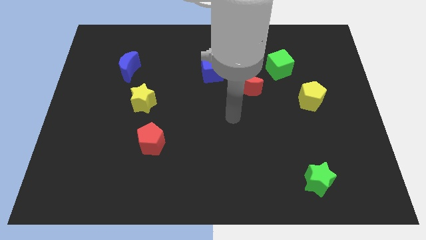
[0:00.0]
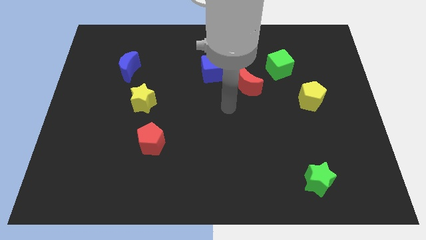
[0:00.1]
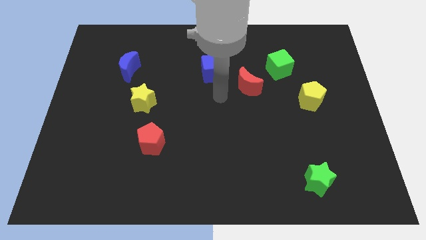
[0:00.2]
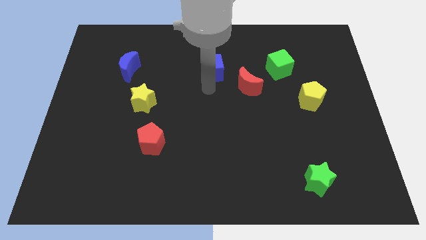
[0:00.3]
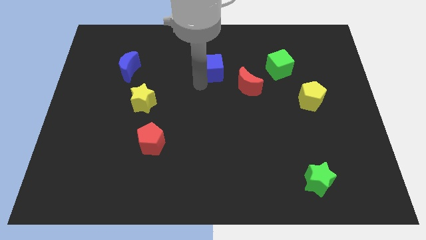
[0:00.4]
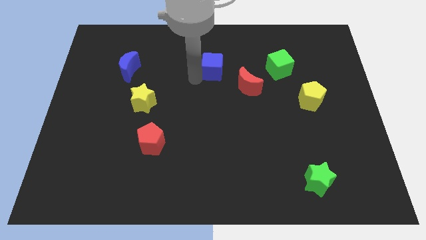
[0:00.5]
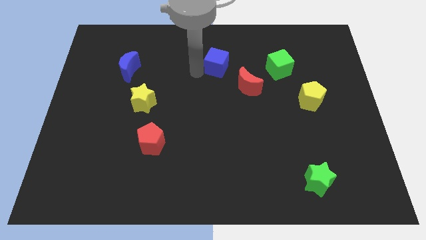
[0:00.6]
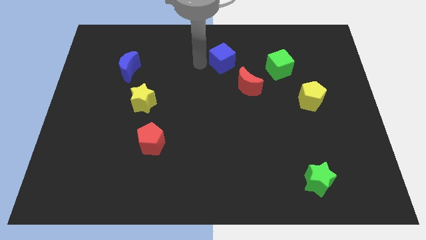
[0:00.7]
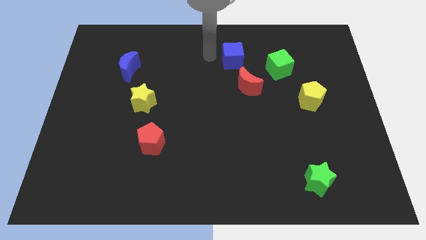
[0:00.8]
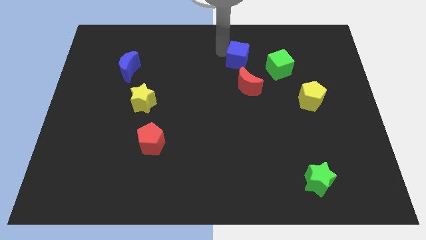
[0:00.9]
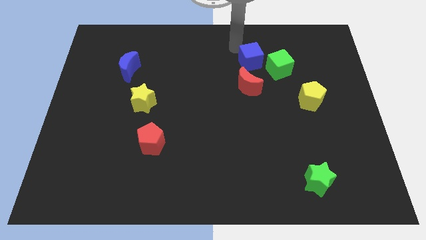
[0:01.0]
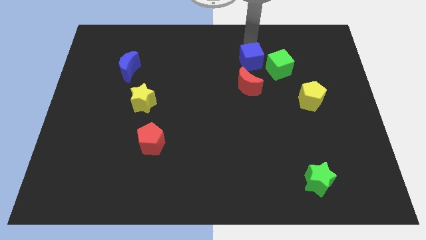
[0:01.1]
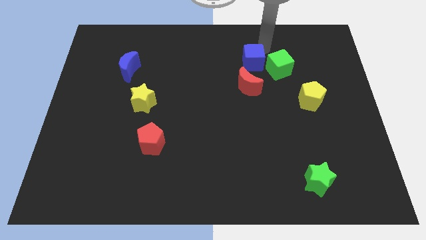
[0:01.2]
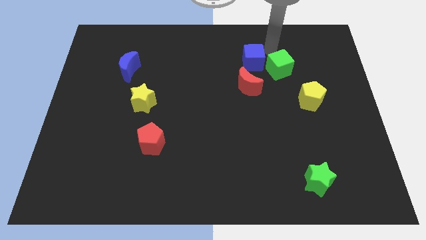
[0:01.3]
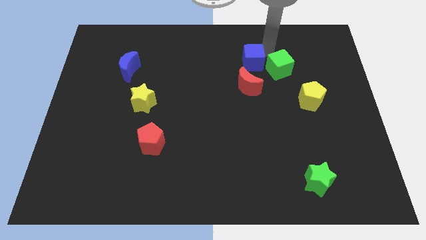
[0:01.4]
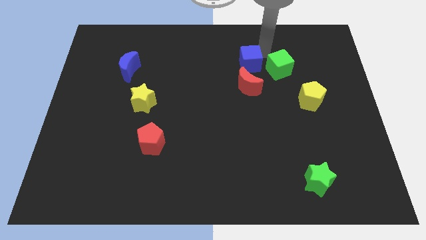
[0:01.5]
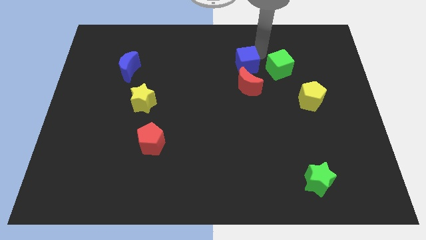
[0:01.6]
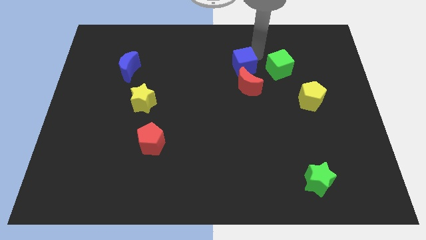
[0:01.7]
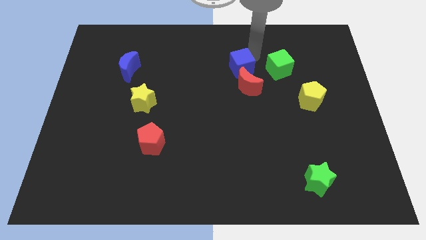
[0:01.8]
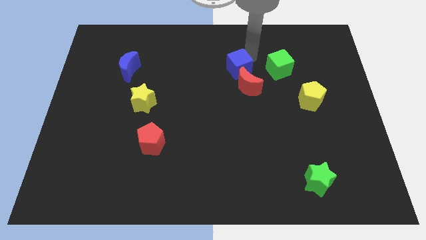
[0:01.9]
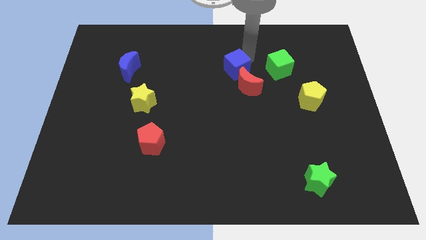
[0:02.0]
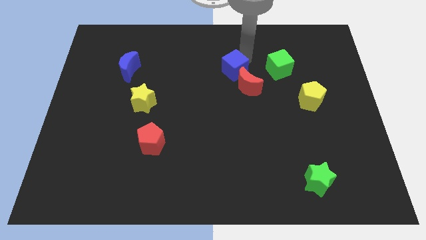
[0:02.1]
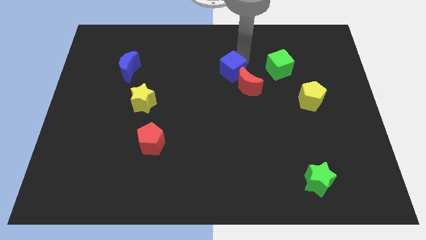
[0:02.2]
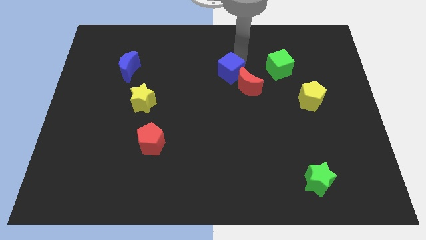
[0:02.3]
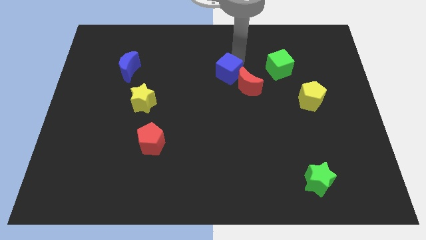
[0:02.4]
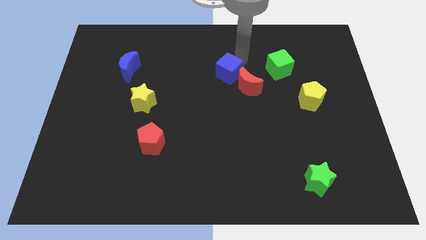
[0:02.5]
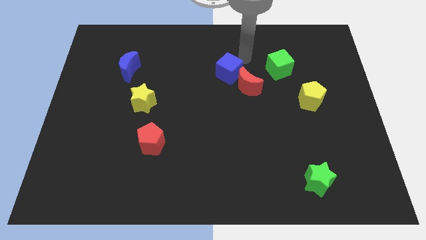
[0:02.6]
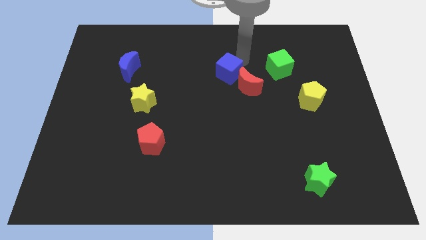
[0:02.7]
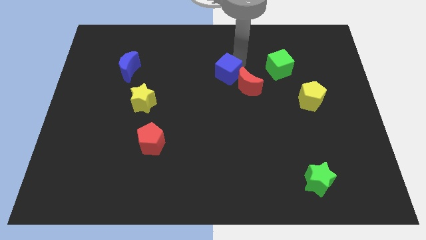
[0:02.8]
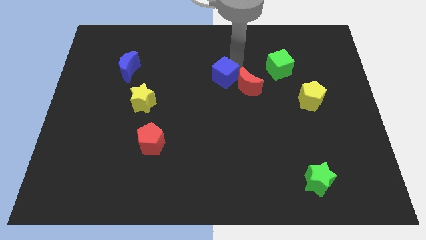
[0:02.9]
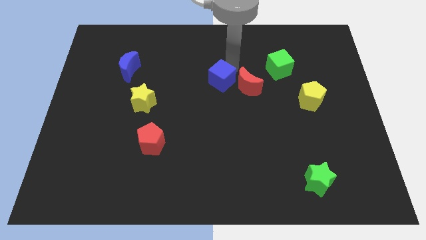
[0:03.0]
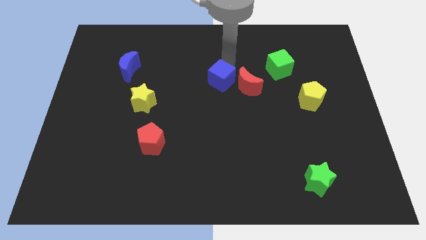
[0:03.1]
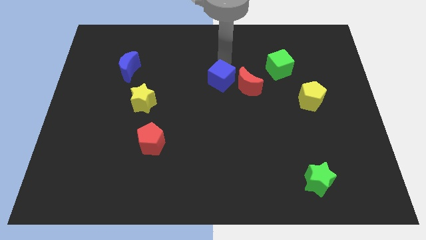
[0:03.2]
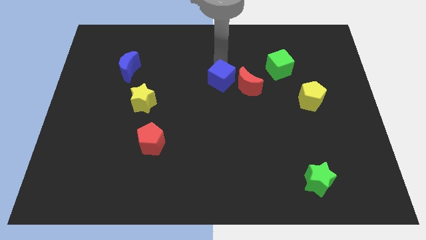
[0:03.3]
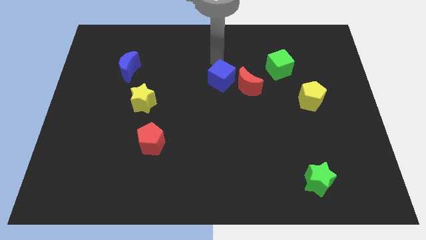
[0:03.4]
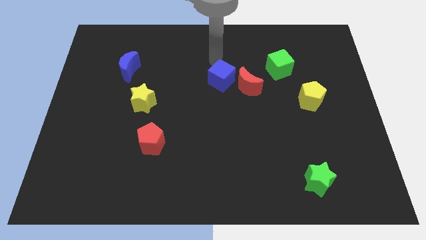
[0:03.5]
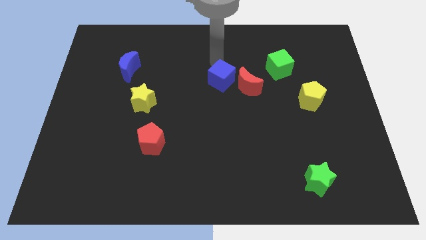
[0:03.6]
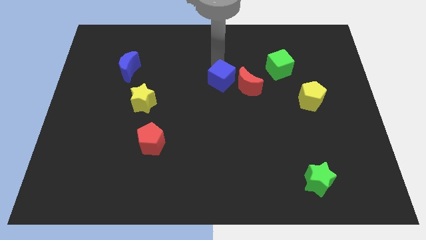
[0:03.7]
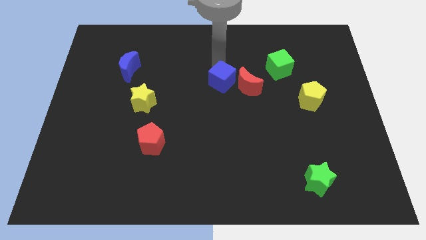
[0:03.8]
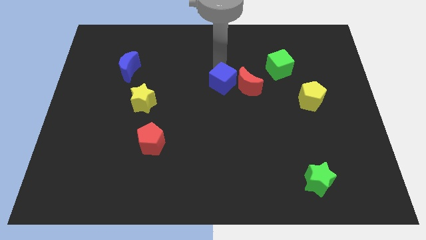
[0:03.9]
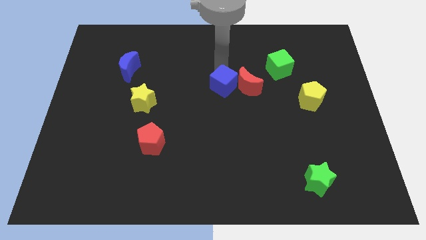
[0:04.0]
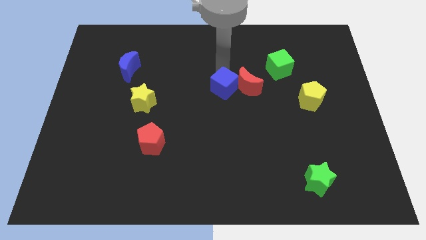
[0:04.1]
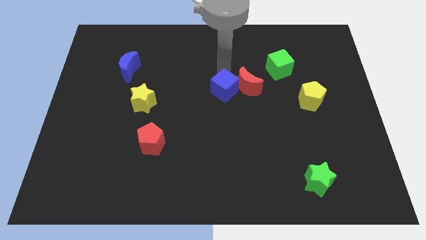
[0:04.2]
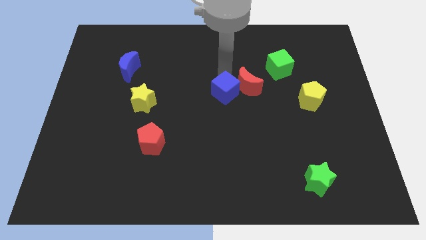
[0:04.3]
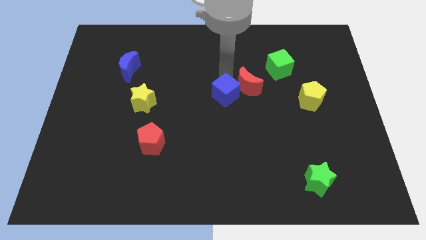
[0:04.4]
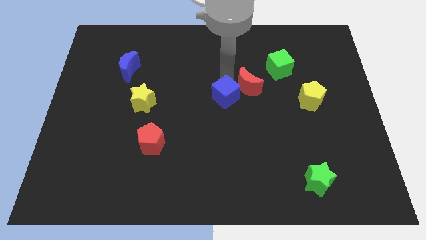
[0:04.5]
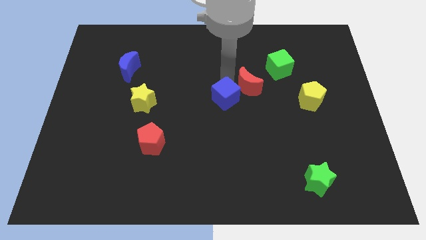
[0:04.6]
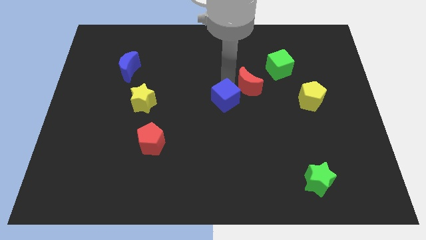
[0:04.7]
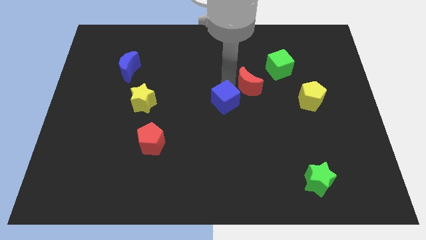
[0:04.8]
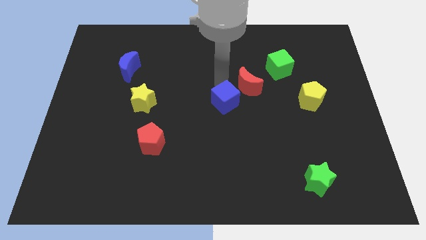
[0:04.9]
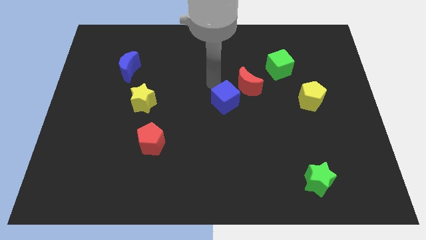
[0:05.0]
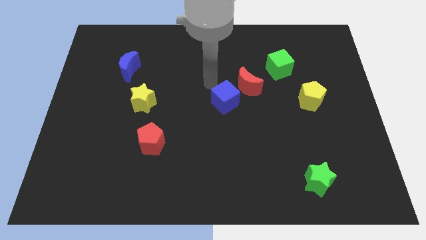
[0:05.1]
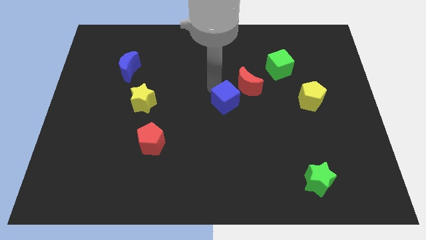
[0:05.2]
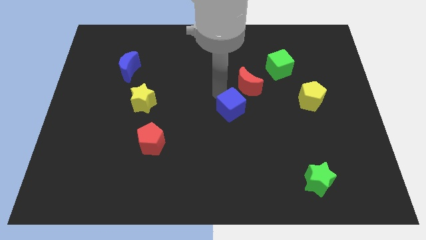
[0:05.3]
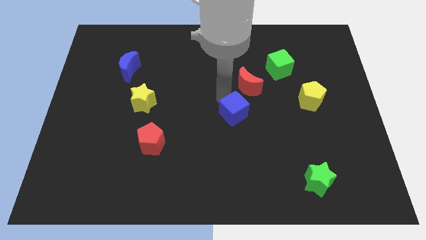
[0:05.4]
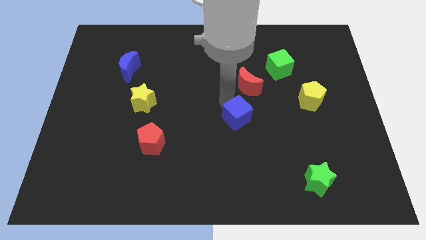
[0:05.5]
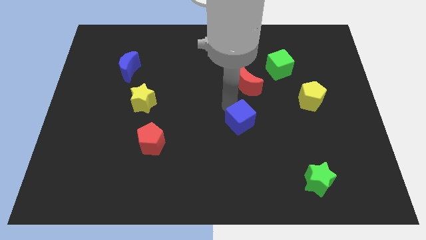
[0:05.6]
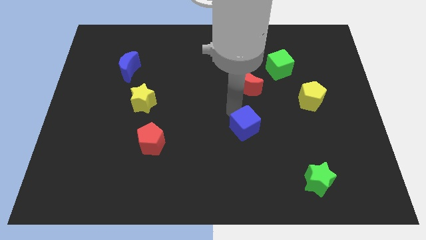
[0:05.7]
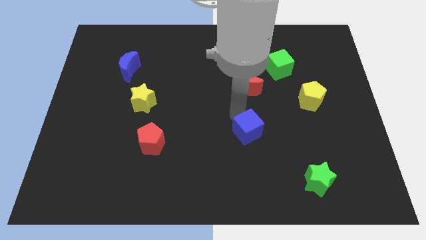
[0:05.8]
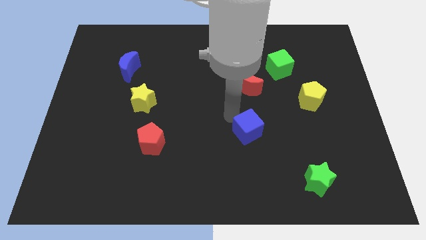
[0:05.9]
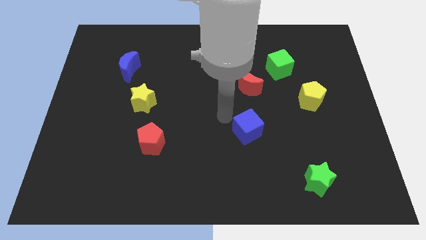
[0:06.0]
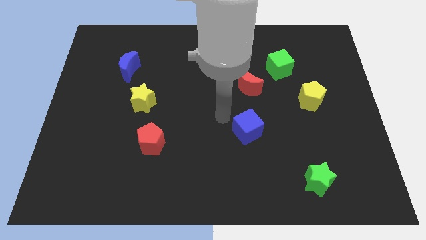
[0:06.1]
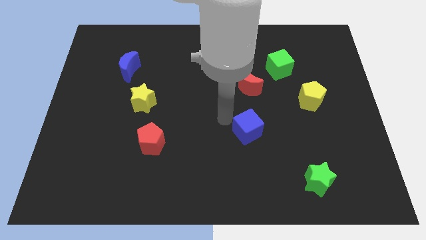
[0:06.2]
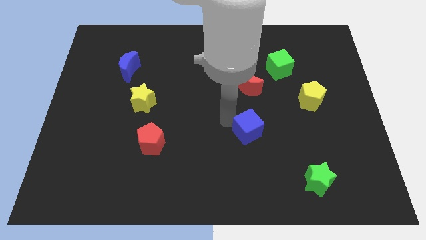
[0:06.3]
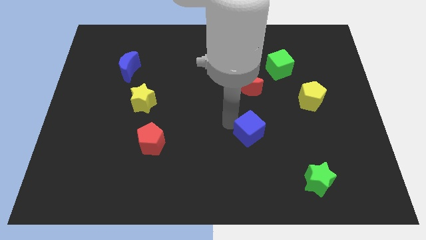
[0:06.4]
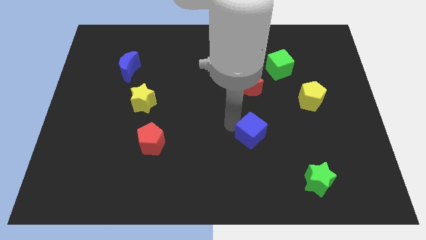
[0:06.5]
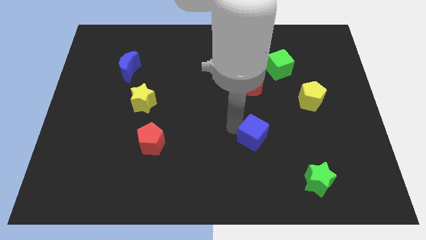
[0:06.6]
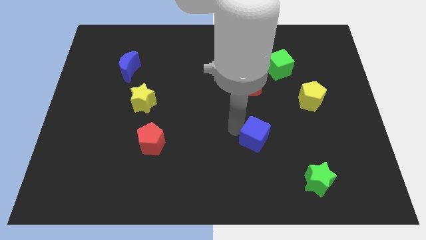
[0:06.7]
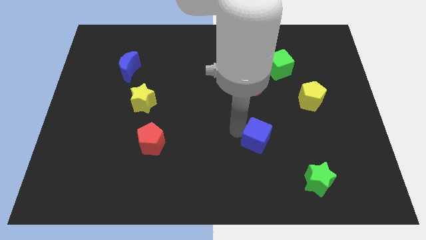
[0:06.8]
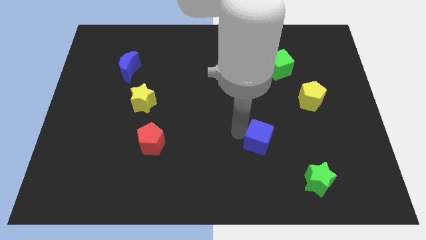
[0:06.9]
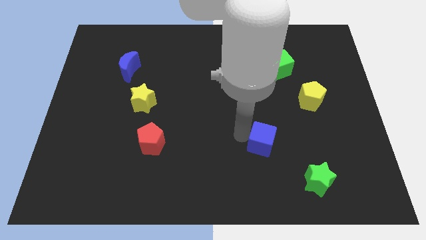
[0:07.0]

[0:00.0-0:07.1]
push the blue cube down and to the right diagonally

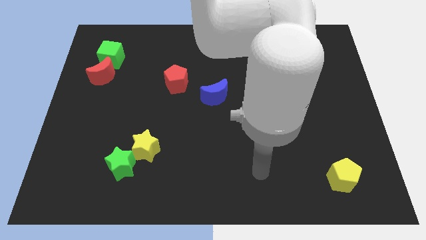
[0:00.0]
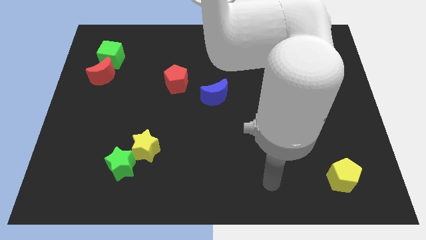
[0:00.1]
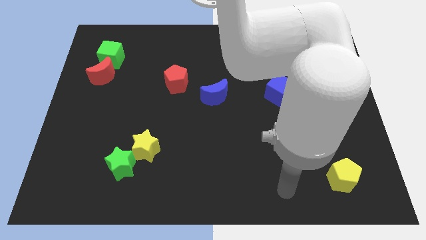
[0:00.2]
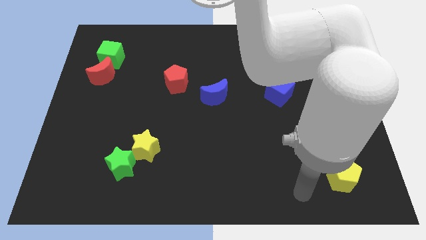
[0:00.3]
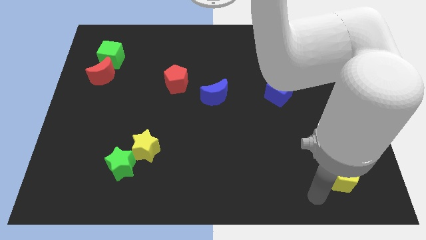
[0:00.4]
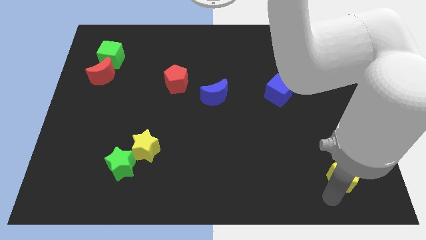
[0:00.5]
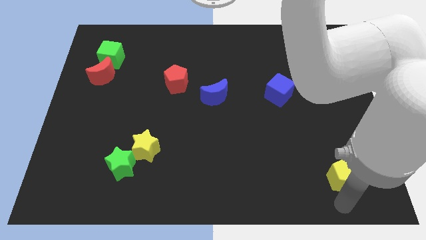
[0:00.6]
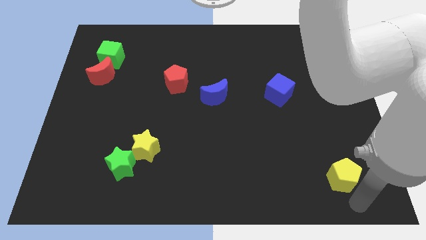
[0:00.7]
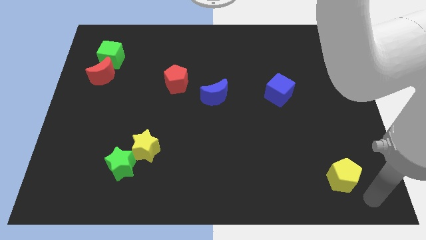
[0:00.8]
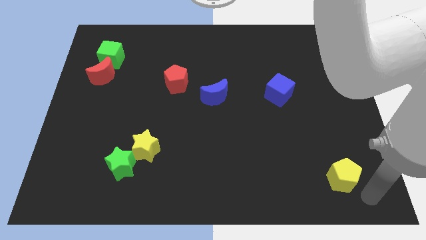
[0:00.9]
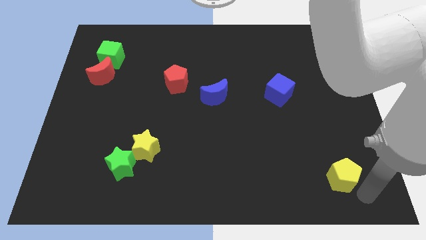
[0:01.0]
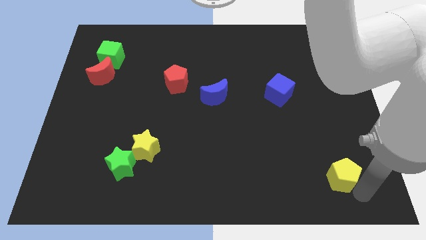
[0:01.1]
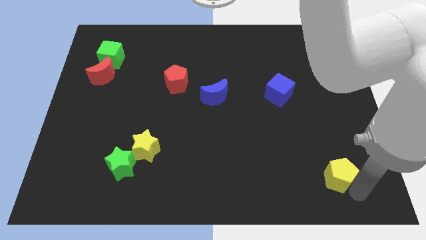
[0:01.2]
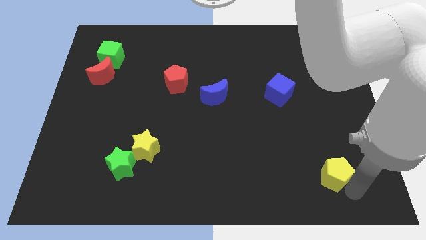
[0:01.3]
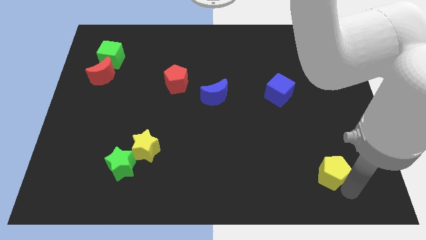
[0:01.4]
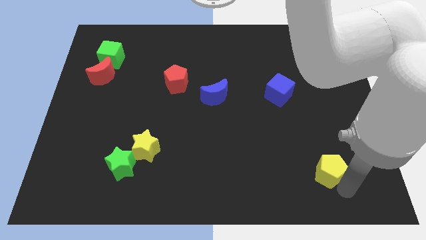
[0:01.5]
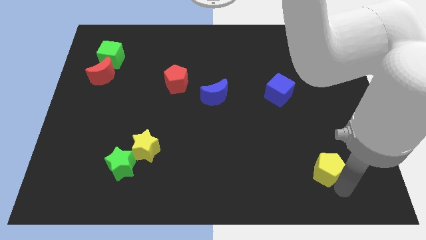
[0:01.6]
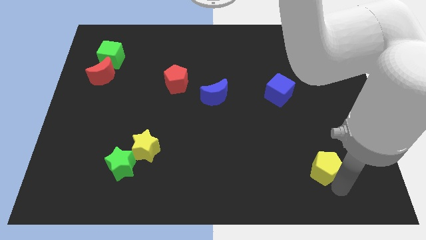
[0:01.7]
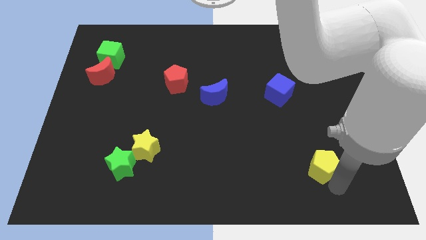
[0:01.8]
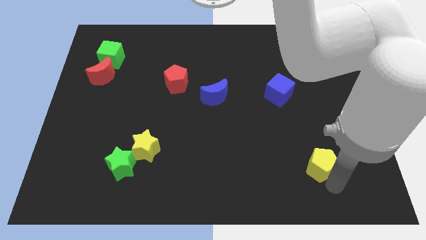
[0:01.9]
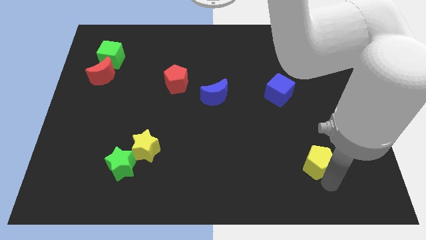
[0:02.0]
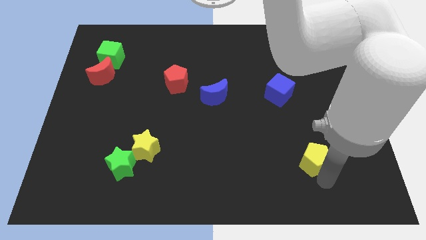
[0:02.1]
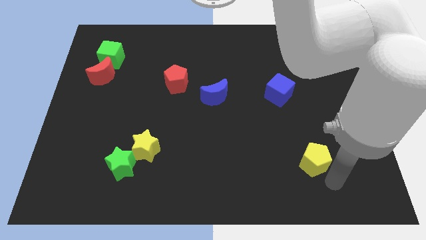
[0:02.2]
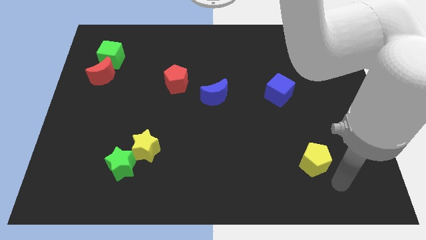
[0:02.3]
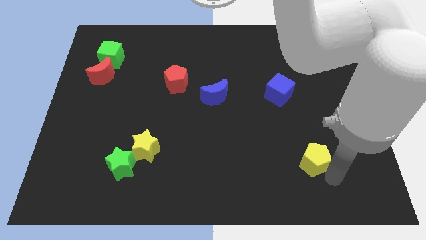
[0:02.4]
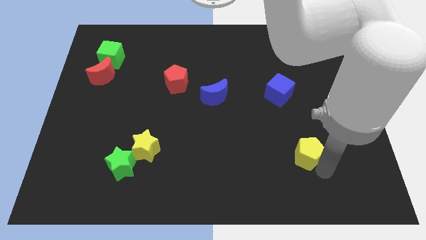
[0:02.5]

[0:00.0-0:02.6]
slightly slide the yellow pentagon upwards and left
